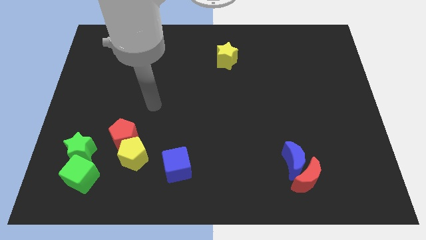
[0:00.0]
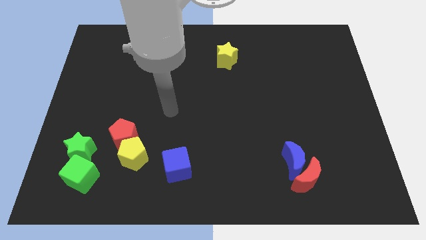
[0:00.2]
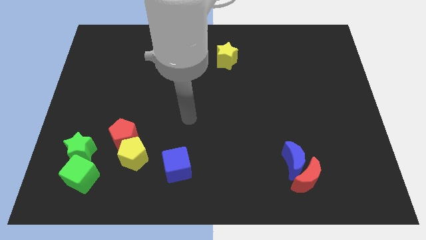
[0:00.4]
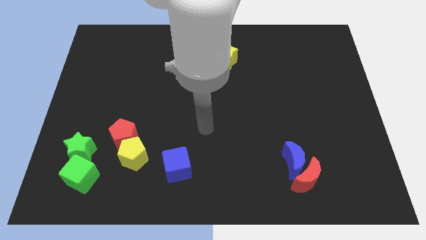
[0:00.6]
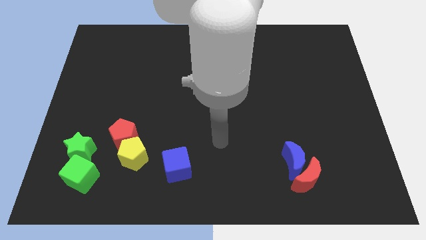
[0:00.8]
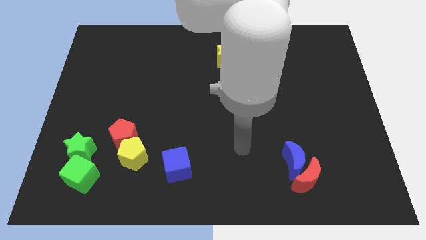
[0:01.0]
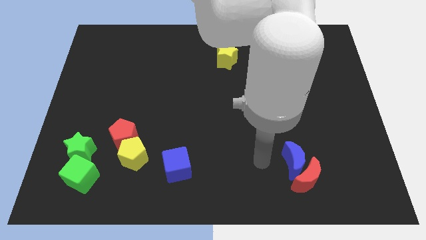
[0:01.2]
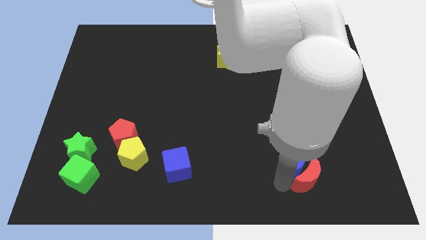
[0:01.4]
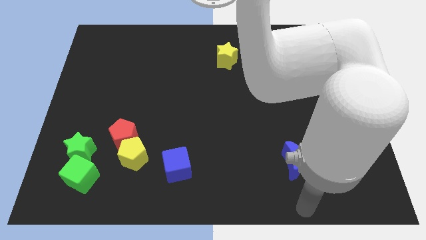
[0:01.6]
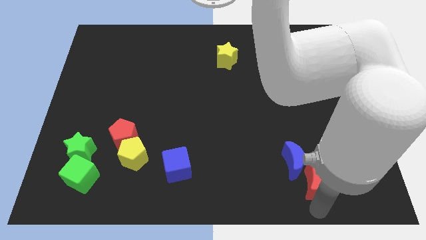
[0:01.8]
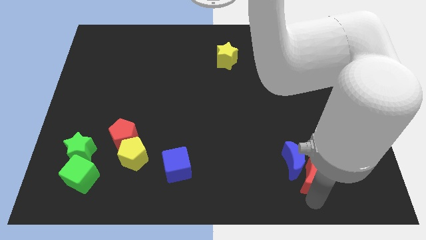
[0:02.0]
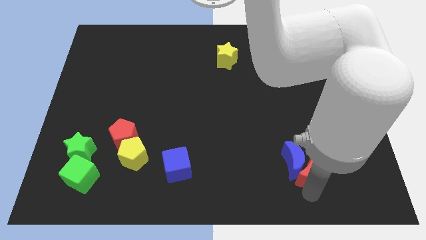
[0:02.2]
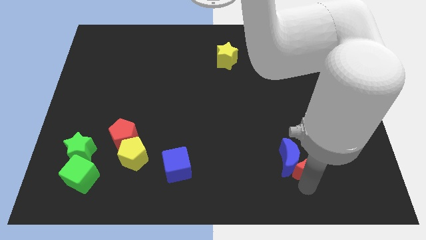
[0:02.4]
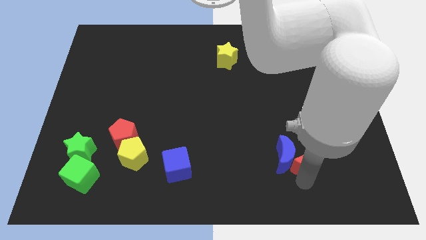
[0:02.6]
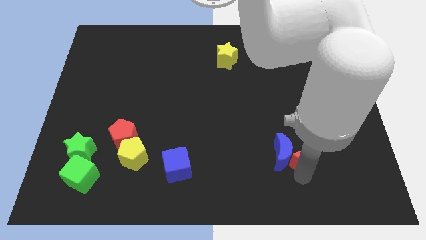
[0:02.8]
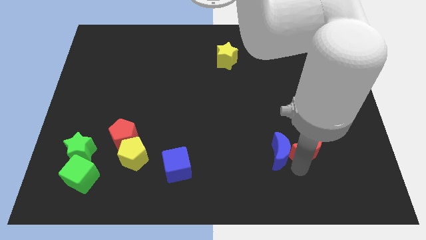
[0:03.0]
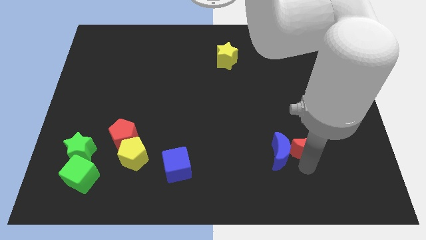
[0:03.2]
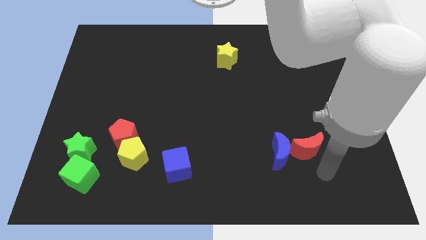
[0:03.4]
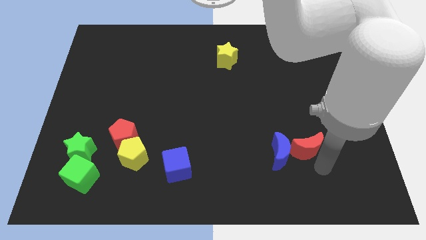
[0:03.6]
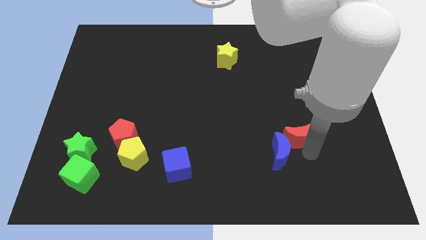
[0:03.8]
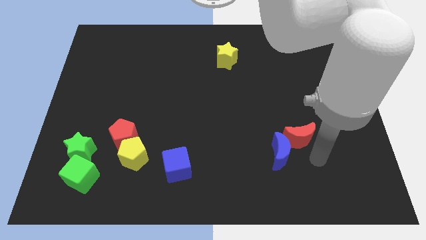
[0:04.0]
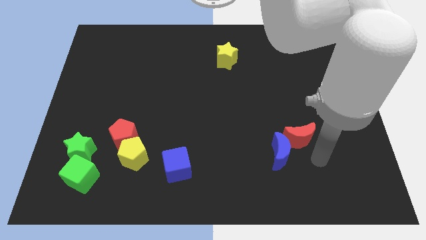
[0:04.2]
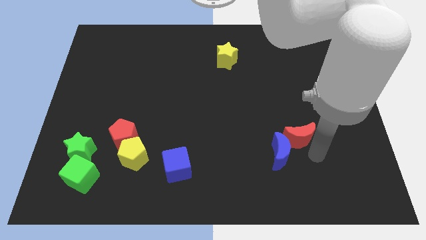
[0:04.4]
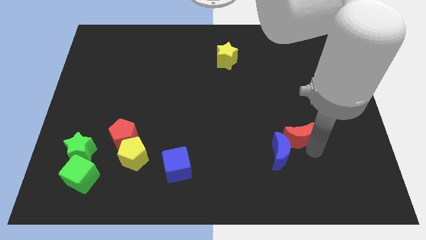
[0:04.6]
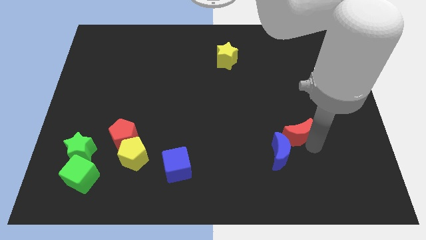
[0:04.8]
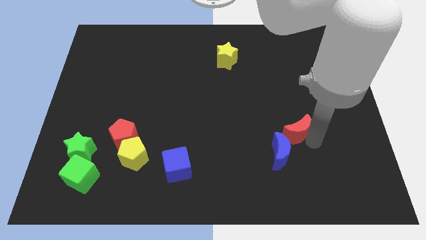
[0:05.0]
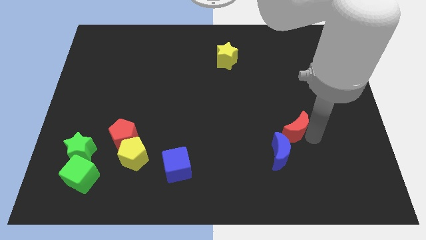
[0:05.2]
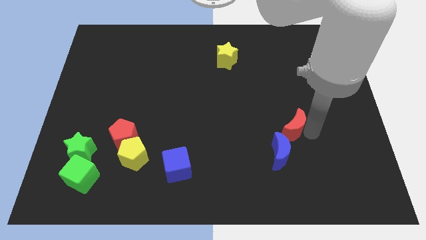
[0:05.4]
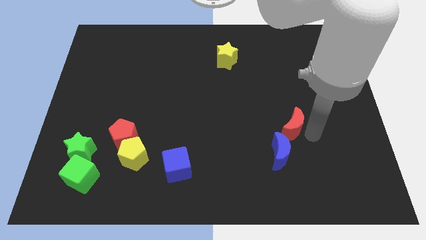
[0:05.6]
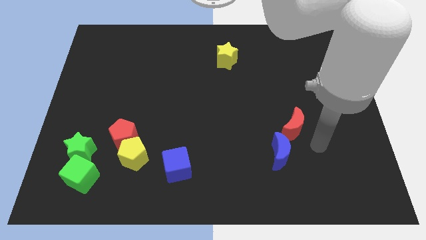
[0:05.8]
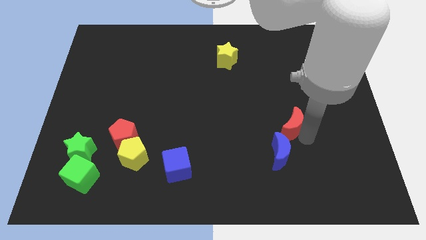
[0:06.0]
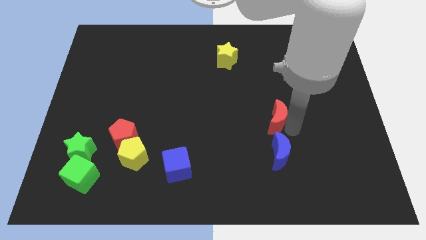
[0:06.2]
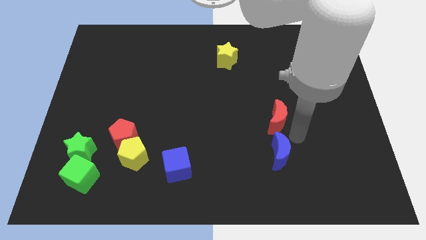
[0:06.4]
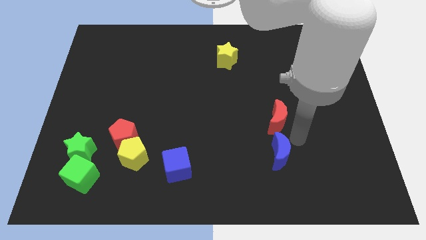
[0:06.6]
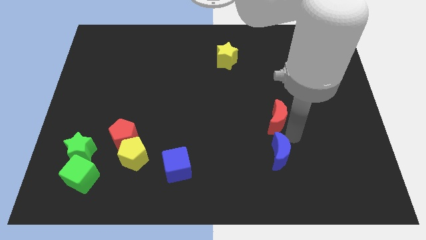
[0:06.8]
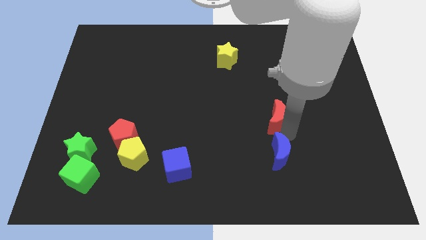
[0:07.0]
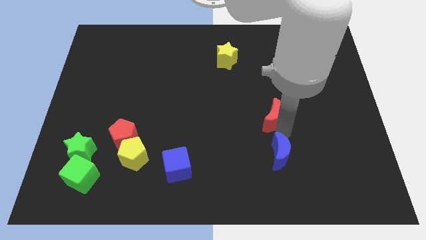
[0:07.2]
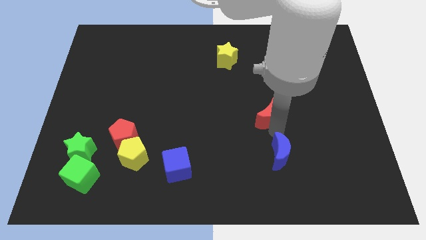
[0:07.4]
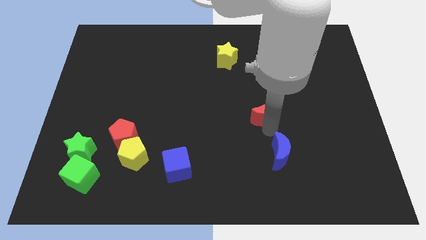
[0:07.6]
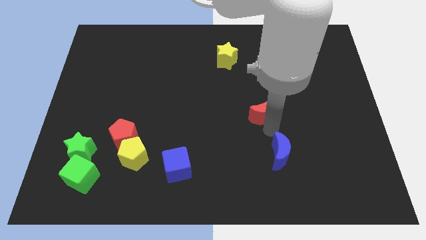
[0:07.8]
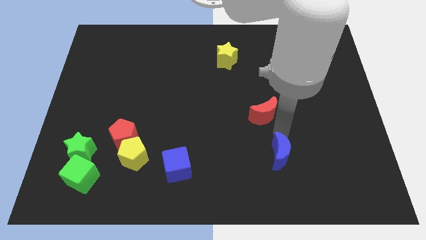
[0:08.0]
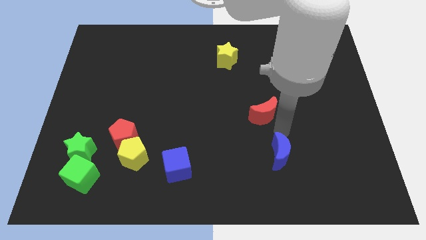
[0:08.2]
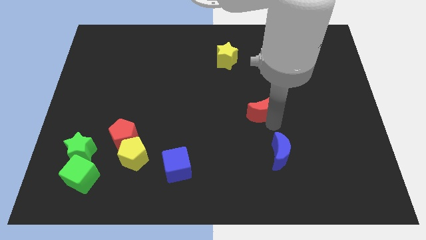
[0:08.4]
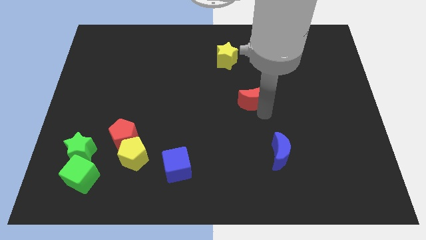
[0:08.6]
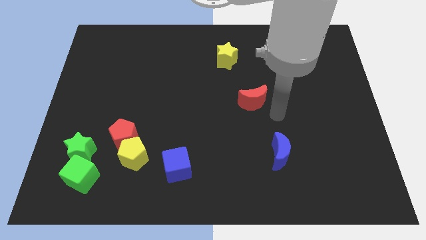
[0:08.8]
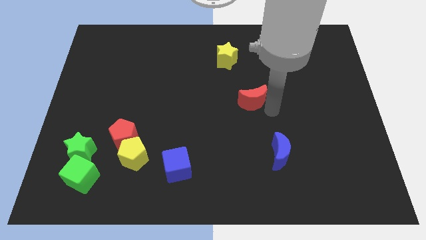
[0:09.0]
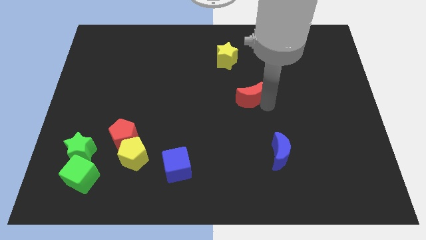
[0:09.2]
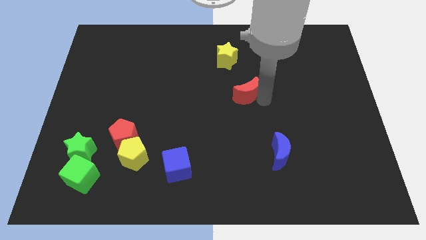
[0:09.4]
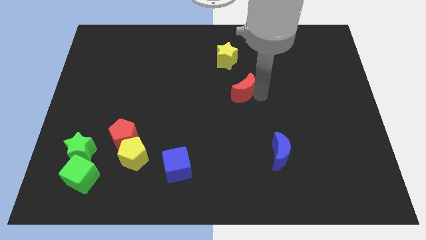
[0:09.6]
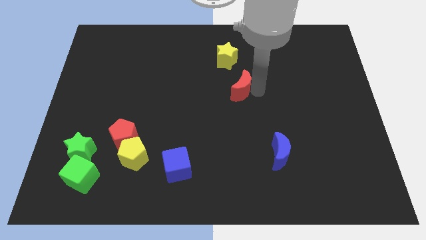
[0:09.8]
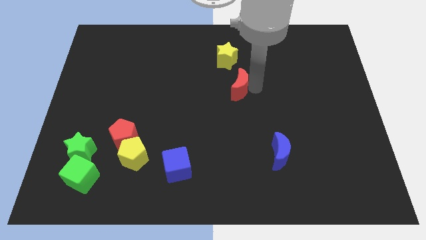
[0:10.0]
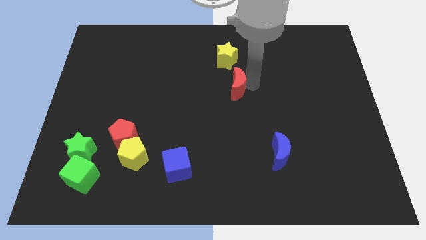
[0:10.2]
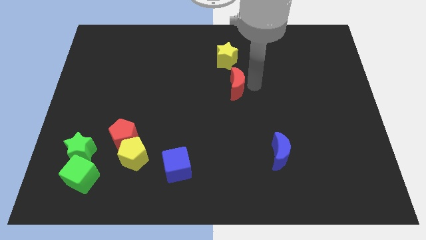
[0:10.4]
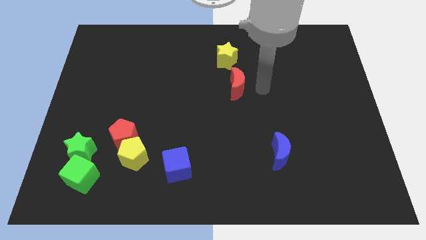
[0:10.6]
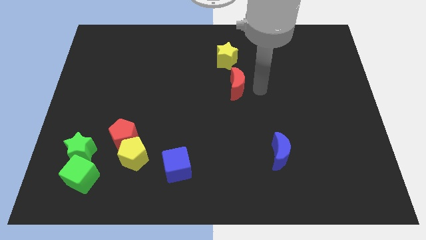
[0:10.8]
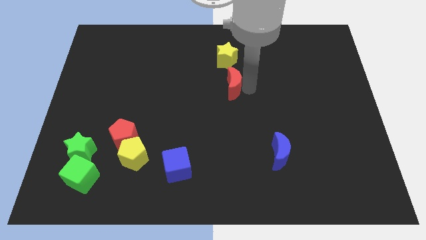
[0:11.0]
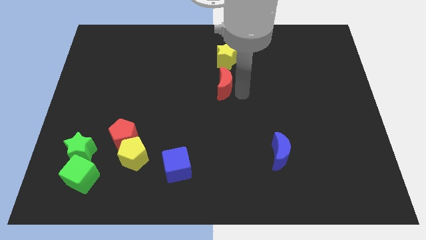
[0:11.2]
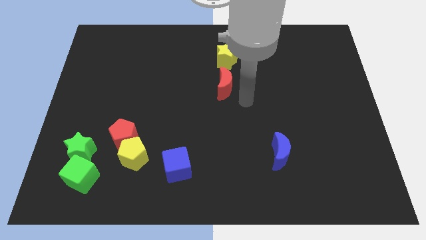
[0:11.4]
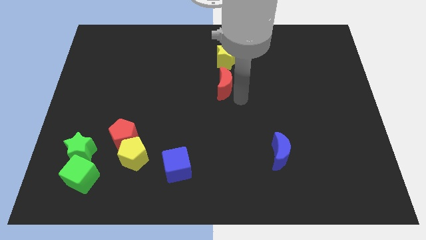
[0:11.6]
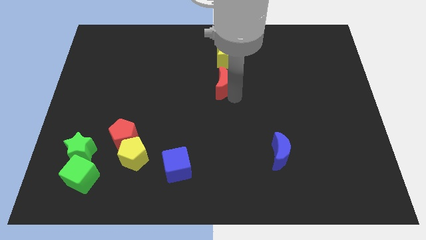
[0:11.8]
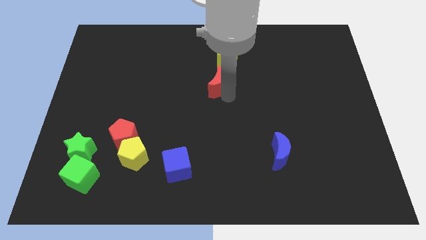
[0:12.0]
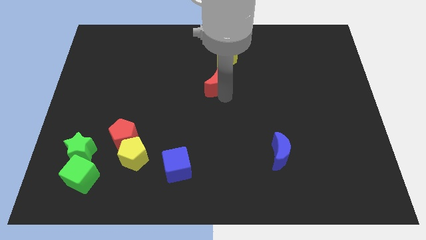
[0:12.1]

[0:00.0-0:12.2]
slide the red moon to the bottom left of the yellow star

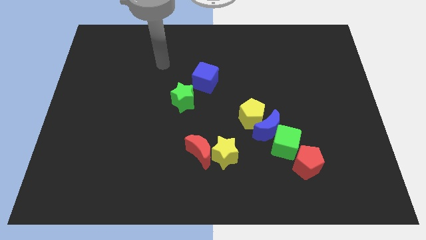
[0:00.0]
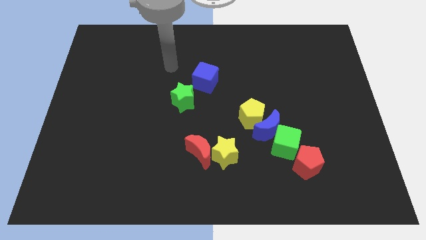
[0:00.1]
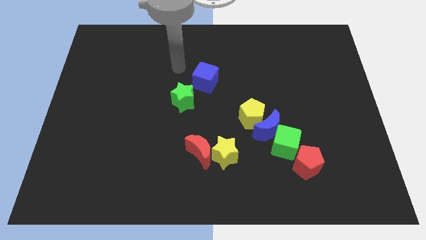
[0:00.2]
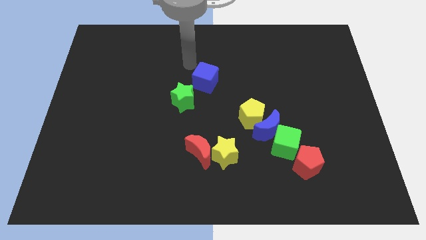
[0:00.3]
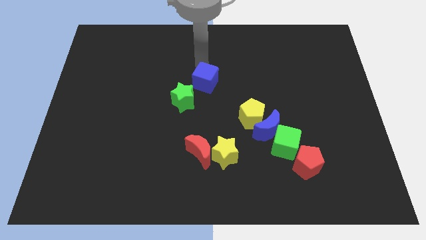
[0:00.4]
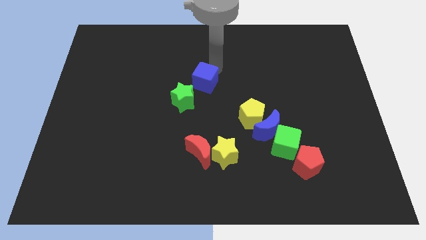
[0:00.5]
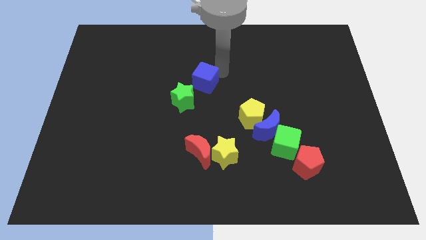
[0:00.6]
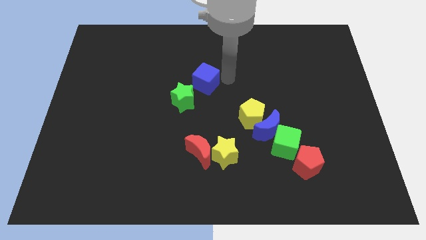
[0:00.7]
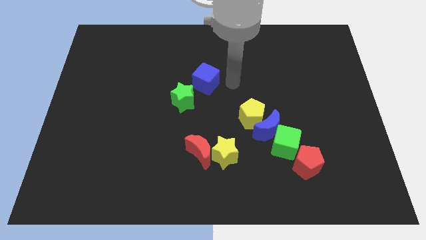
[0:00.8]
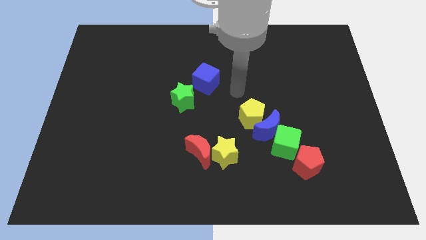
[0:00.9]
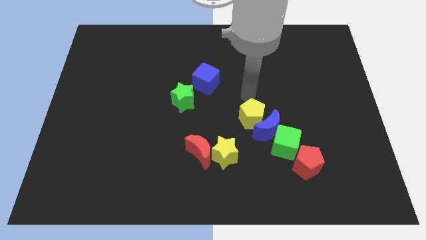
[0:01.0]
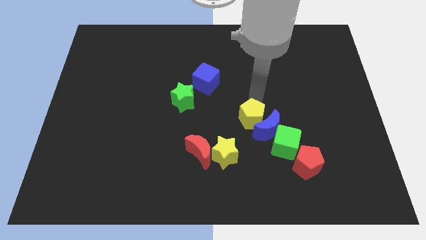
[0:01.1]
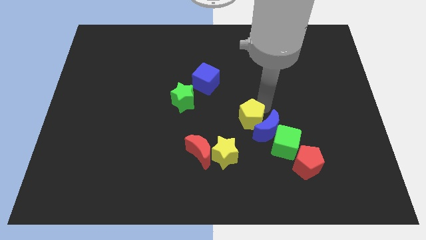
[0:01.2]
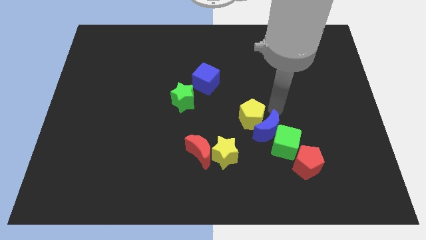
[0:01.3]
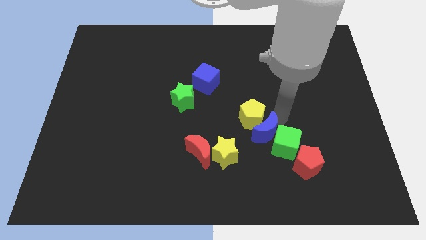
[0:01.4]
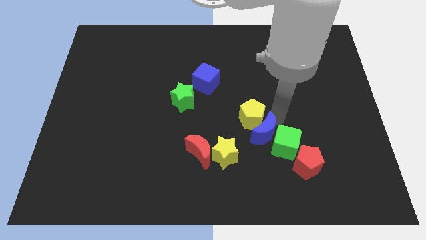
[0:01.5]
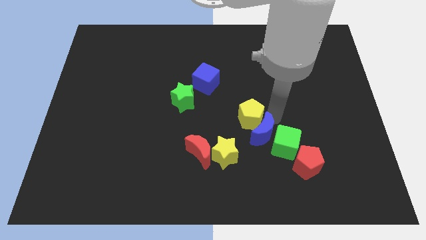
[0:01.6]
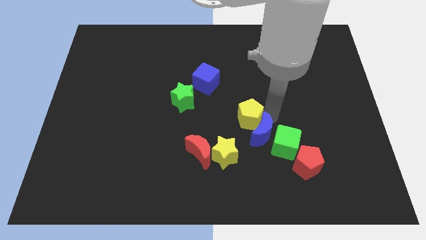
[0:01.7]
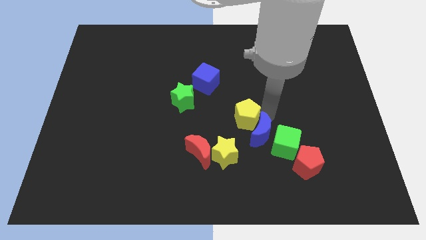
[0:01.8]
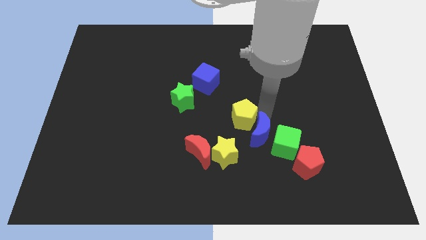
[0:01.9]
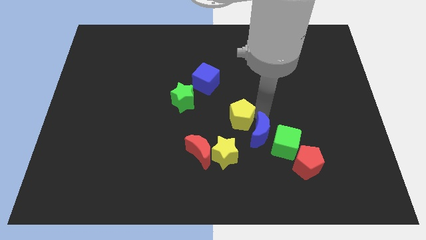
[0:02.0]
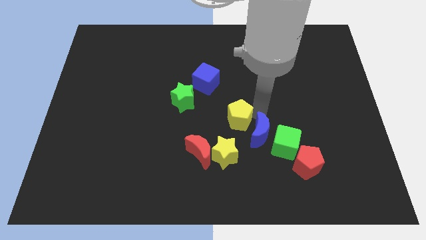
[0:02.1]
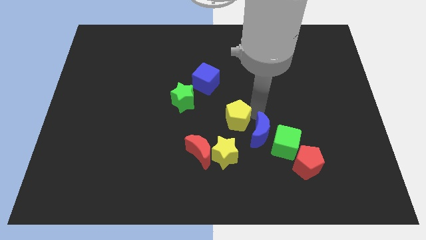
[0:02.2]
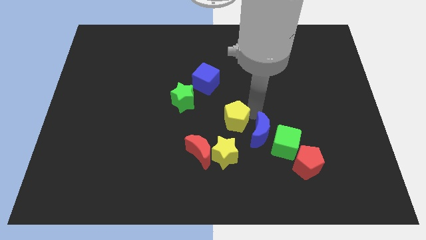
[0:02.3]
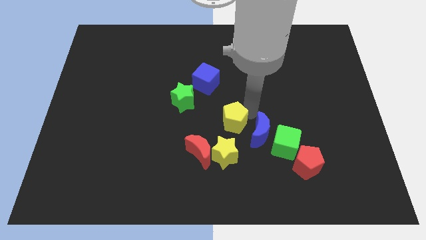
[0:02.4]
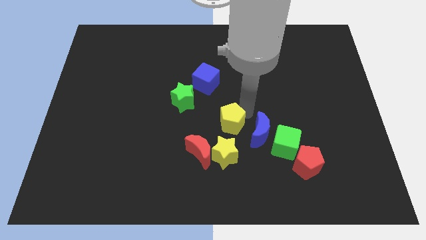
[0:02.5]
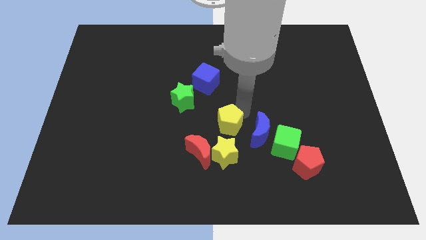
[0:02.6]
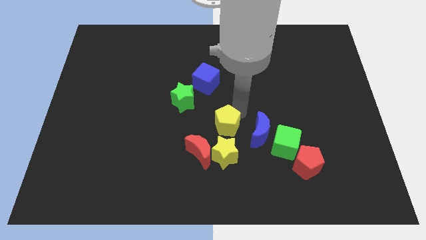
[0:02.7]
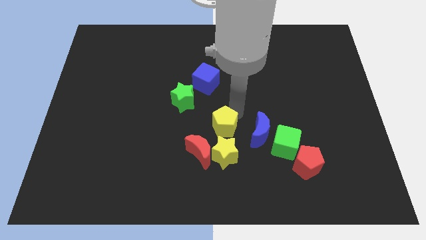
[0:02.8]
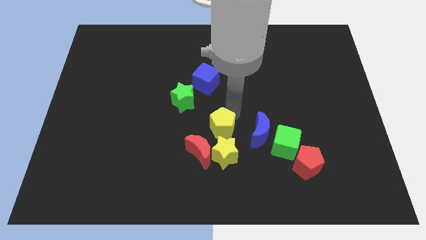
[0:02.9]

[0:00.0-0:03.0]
put the yellow pentagon above the red moon
